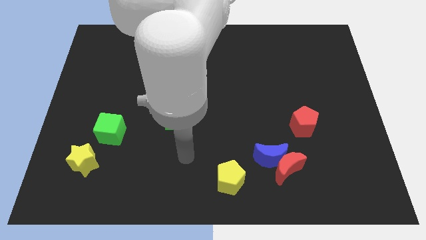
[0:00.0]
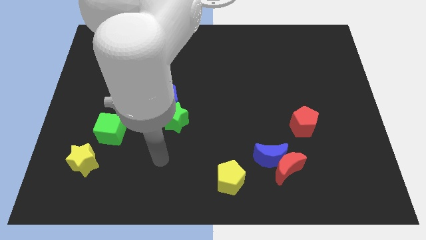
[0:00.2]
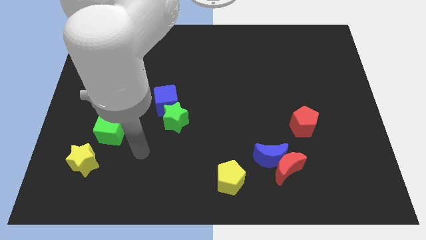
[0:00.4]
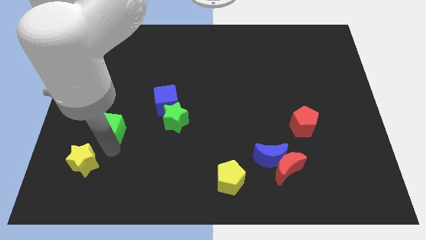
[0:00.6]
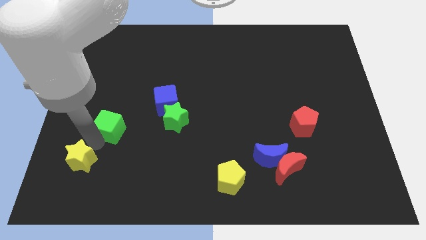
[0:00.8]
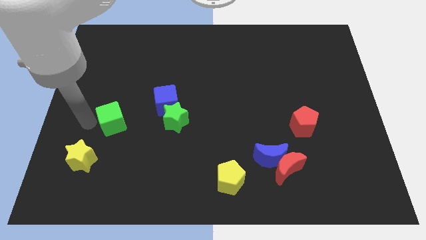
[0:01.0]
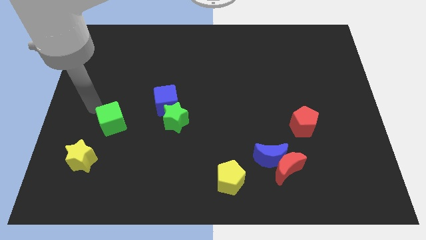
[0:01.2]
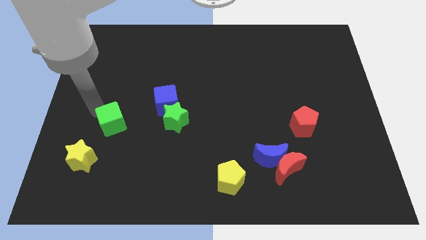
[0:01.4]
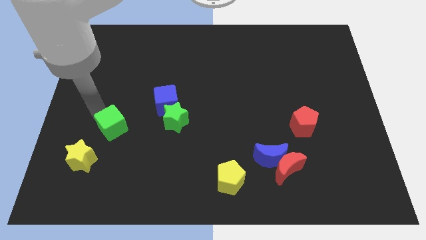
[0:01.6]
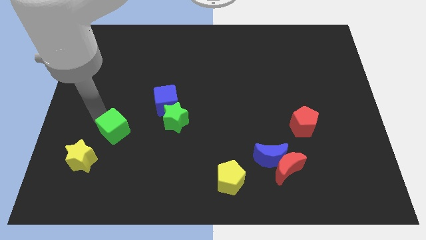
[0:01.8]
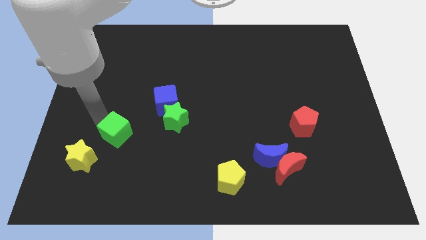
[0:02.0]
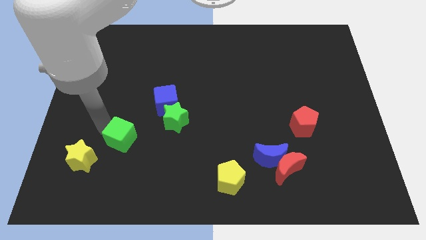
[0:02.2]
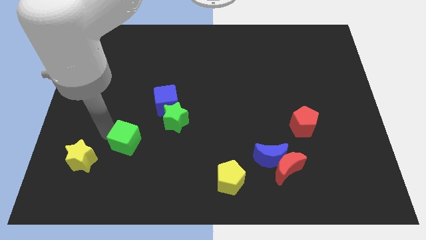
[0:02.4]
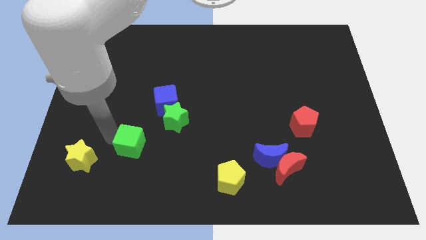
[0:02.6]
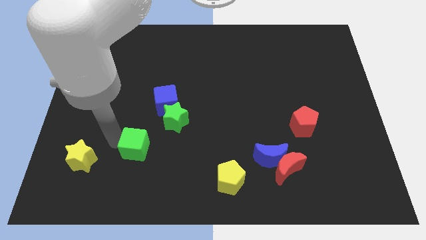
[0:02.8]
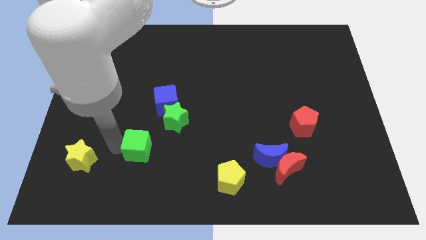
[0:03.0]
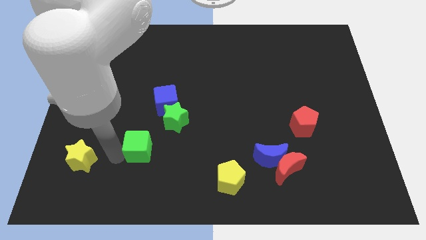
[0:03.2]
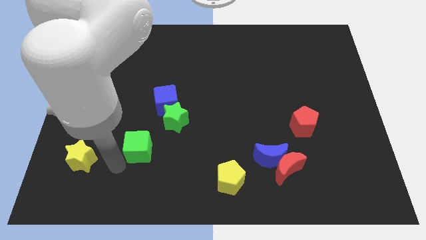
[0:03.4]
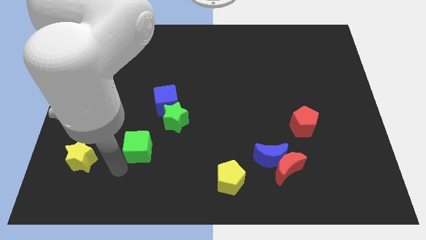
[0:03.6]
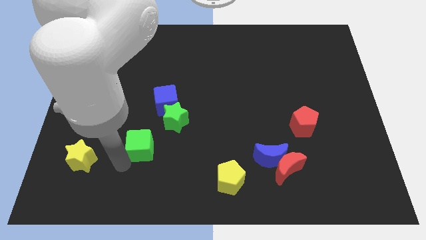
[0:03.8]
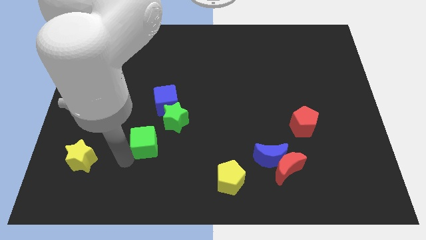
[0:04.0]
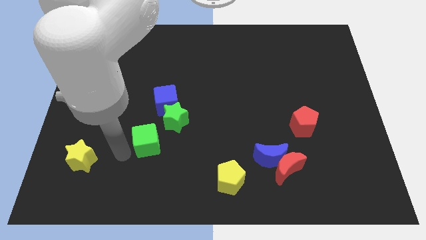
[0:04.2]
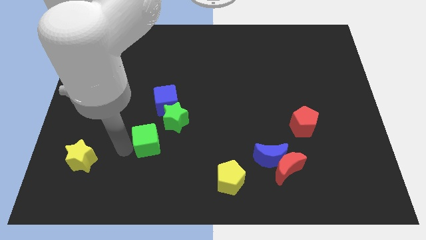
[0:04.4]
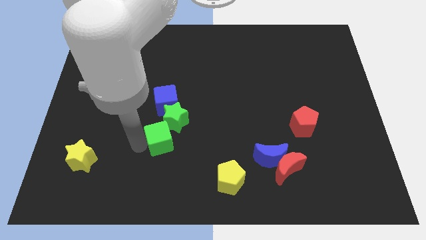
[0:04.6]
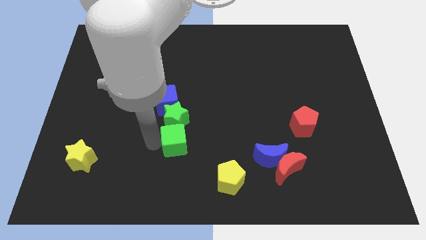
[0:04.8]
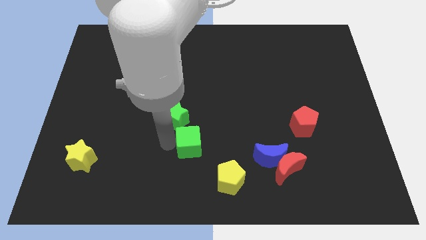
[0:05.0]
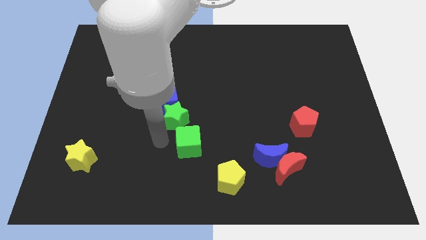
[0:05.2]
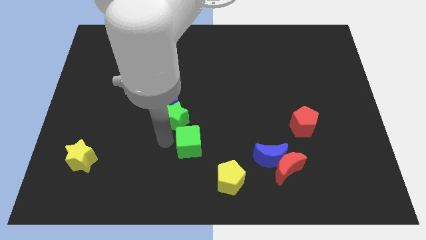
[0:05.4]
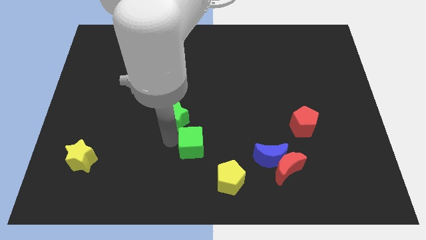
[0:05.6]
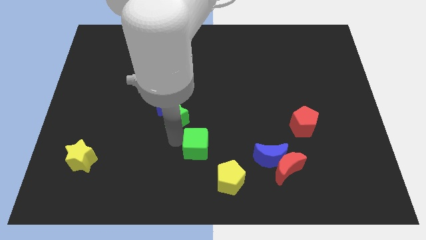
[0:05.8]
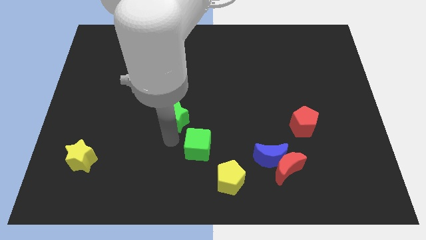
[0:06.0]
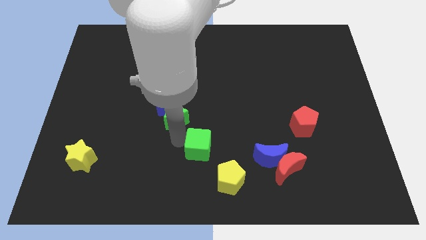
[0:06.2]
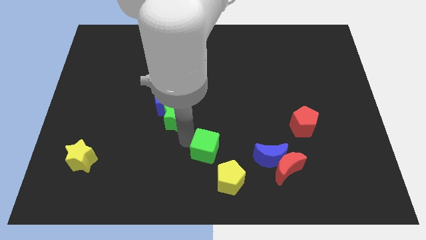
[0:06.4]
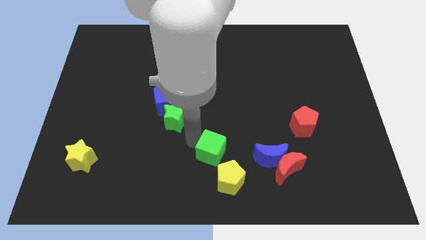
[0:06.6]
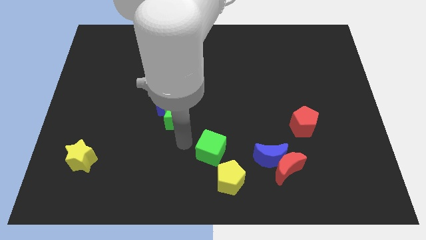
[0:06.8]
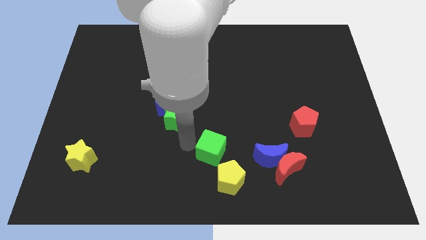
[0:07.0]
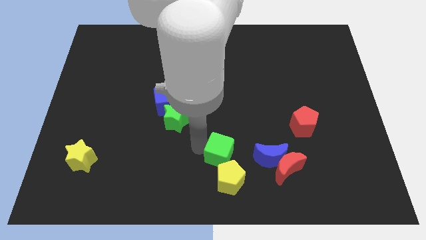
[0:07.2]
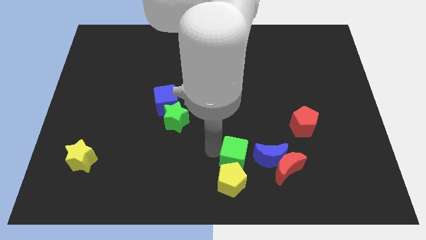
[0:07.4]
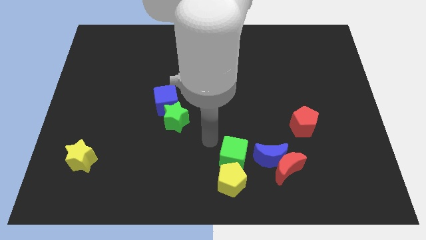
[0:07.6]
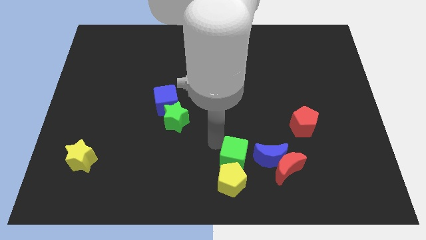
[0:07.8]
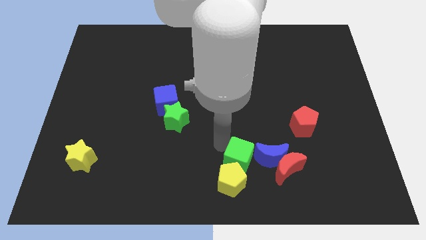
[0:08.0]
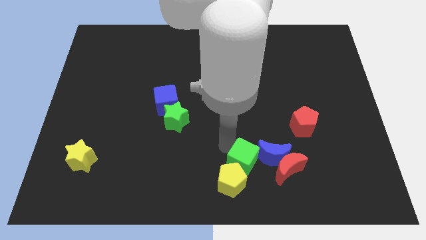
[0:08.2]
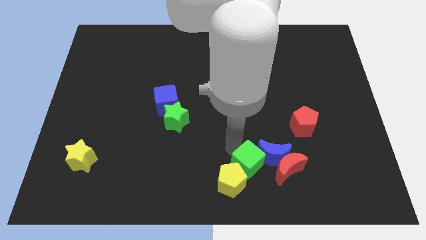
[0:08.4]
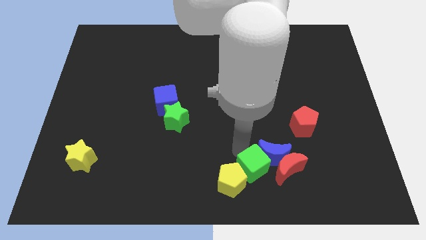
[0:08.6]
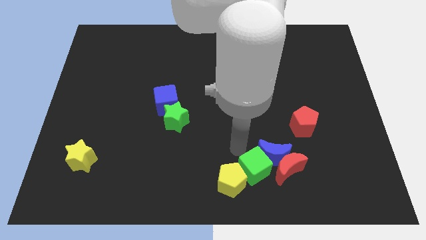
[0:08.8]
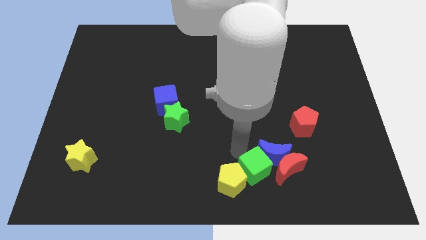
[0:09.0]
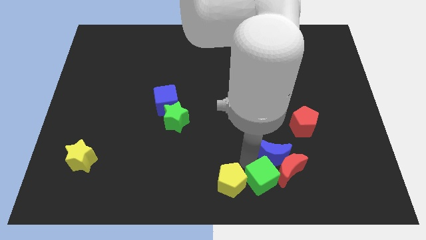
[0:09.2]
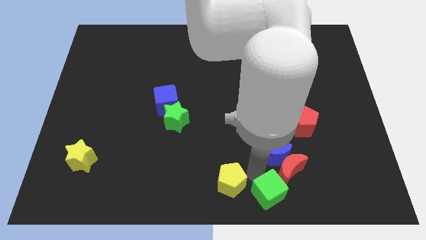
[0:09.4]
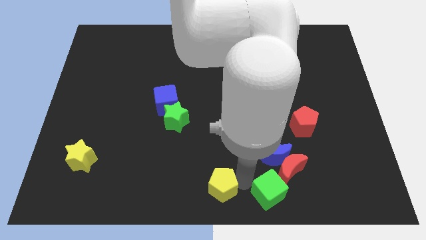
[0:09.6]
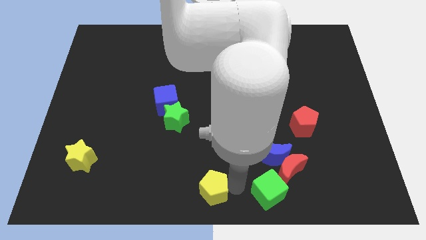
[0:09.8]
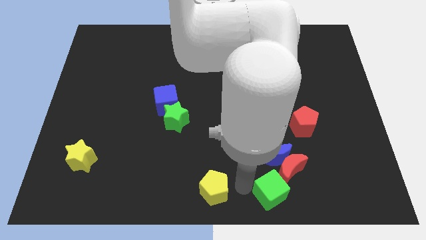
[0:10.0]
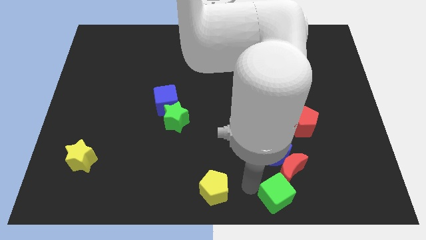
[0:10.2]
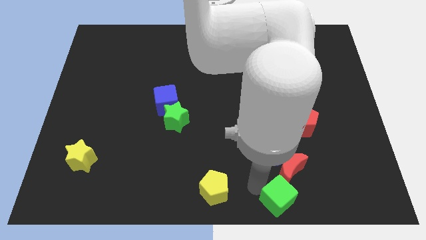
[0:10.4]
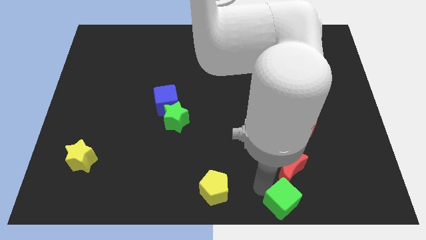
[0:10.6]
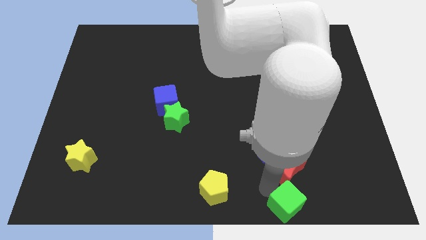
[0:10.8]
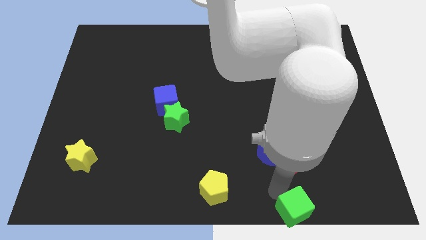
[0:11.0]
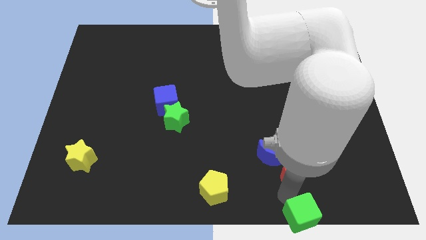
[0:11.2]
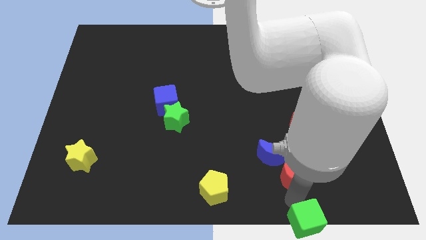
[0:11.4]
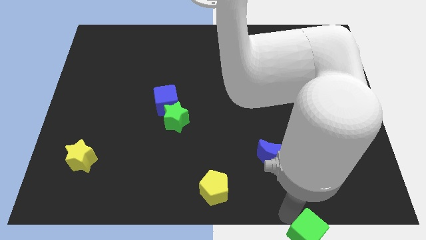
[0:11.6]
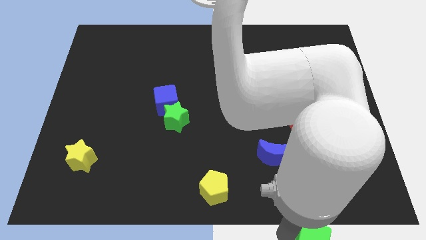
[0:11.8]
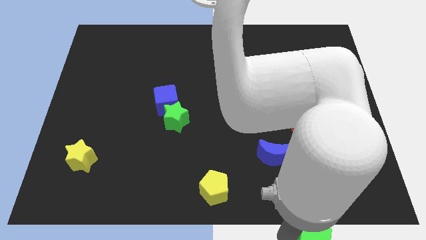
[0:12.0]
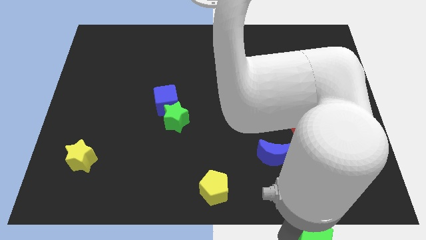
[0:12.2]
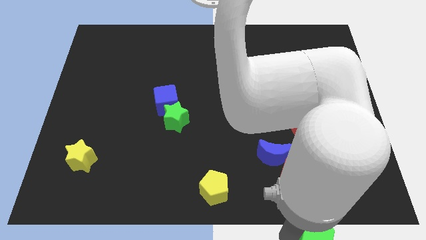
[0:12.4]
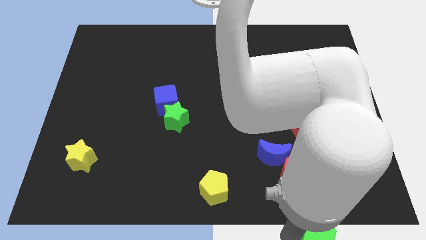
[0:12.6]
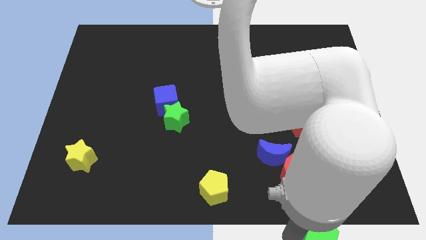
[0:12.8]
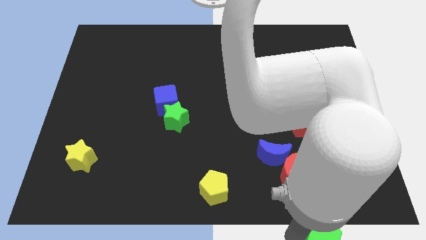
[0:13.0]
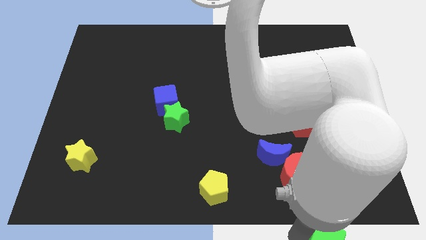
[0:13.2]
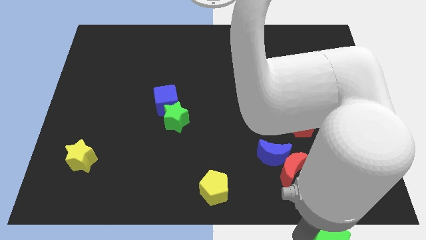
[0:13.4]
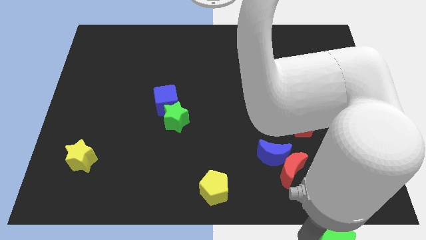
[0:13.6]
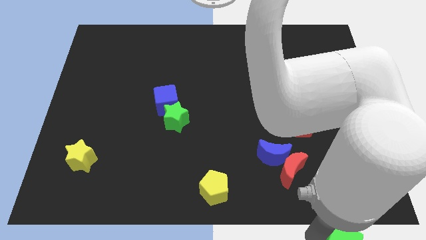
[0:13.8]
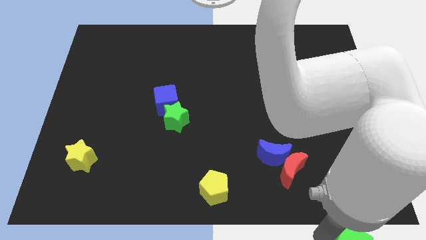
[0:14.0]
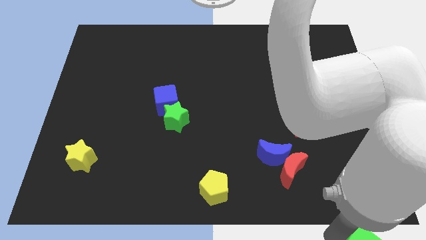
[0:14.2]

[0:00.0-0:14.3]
move the green cube to the bottom right corner
